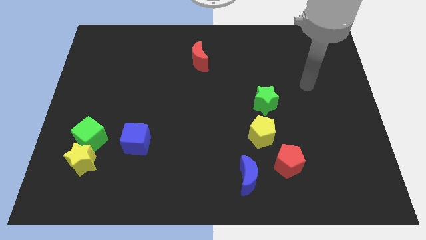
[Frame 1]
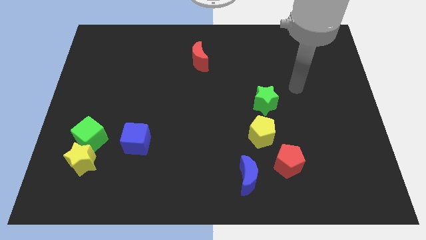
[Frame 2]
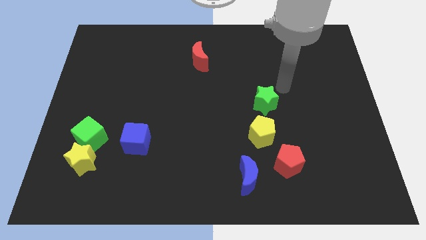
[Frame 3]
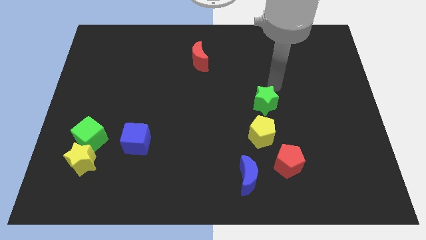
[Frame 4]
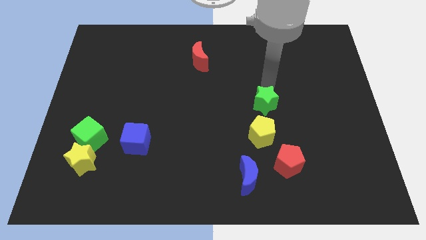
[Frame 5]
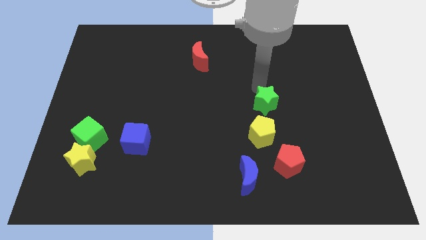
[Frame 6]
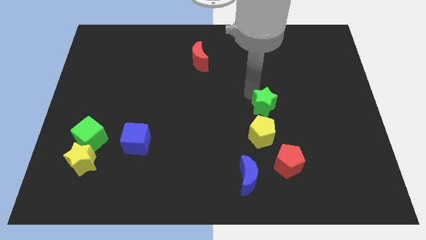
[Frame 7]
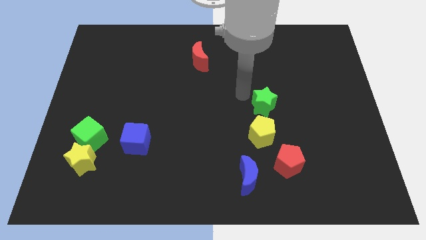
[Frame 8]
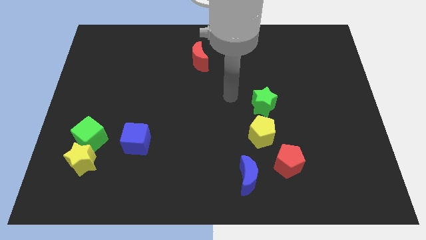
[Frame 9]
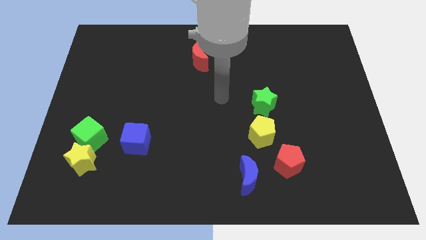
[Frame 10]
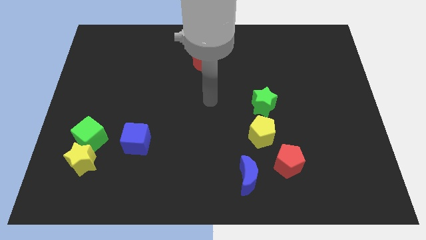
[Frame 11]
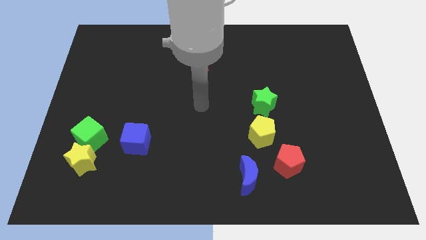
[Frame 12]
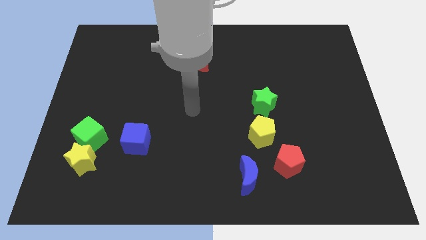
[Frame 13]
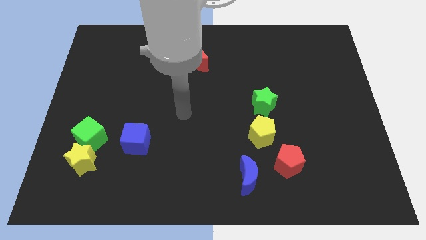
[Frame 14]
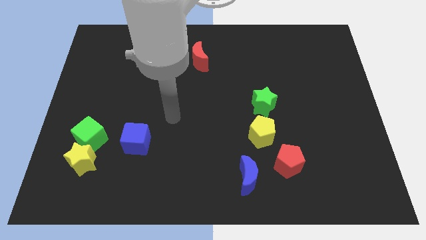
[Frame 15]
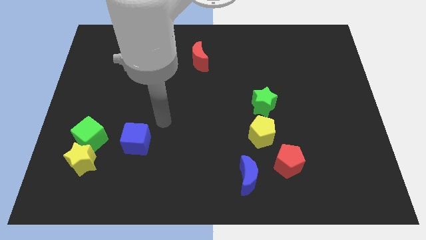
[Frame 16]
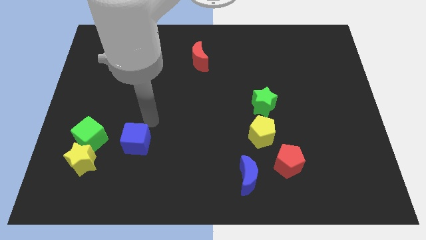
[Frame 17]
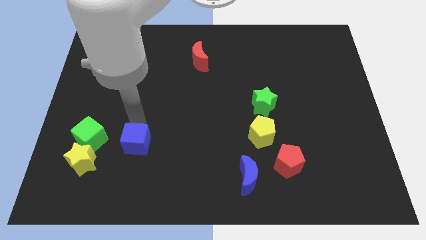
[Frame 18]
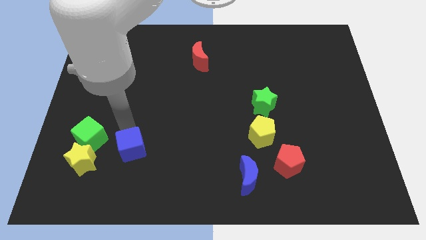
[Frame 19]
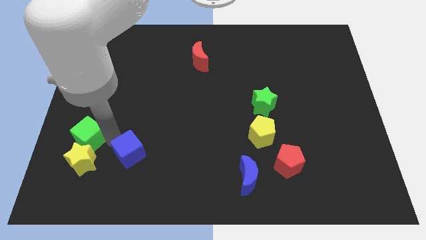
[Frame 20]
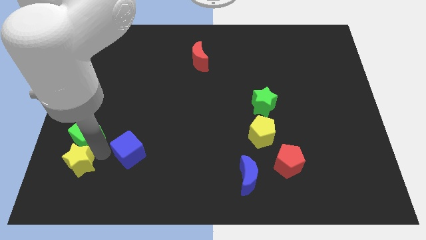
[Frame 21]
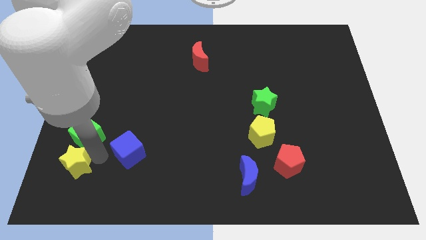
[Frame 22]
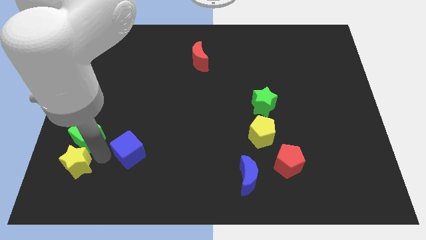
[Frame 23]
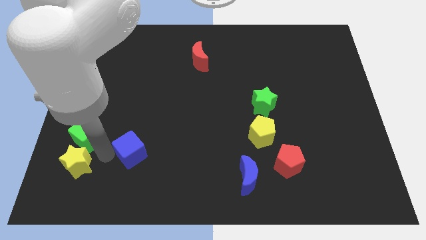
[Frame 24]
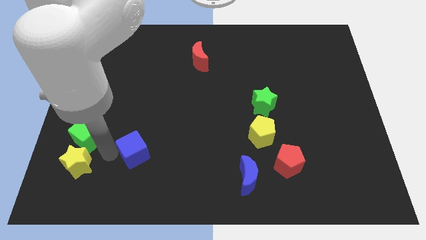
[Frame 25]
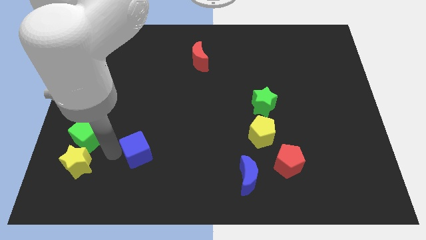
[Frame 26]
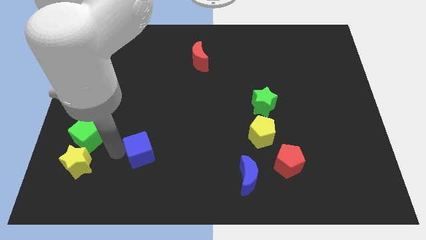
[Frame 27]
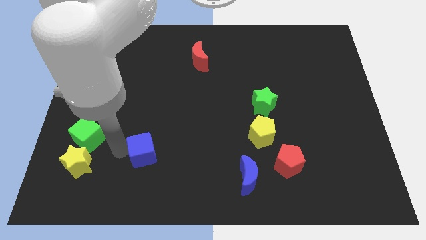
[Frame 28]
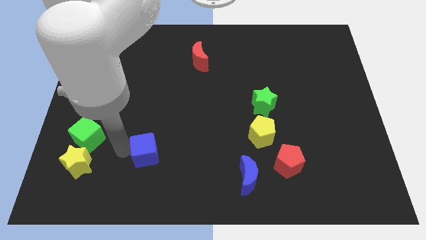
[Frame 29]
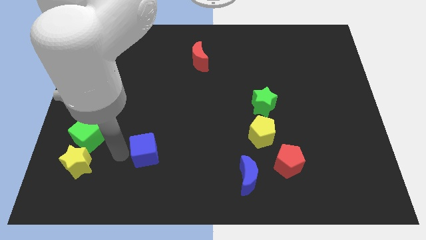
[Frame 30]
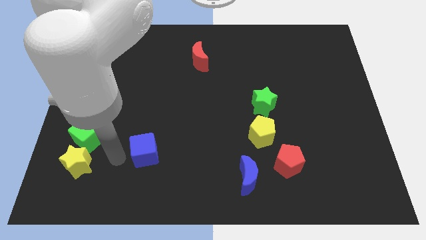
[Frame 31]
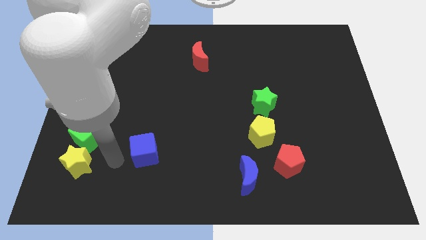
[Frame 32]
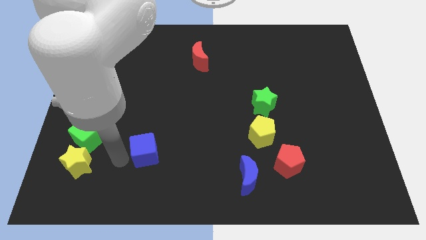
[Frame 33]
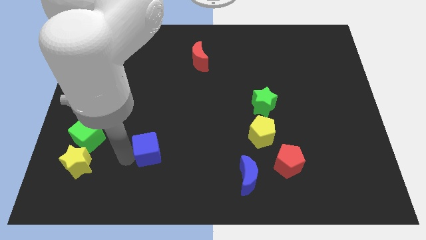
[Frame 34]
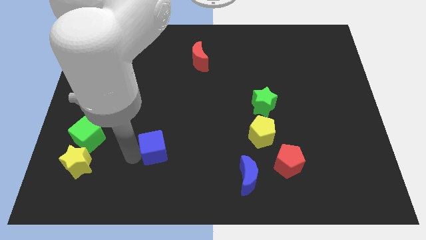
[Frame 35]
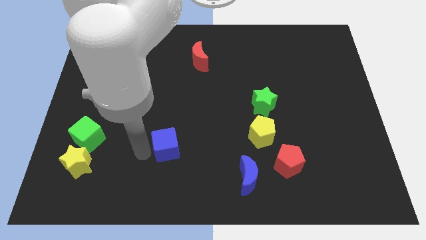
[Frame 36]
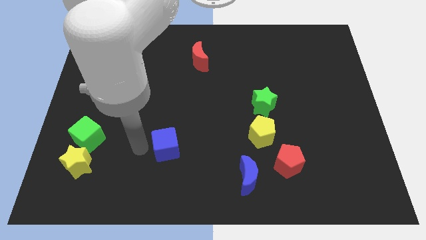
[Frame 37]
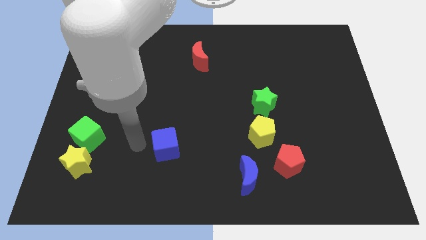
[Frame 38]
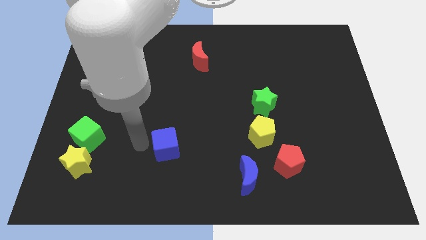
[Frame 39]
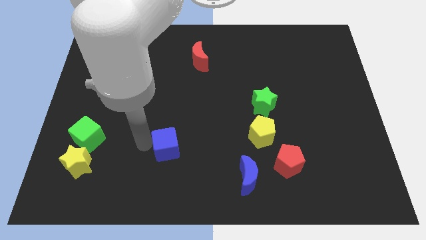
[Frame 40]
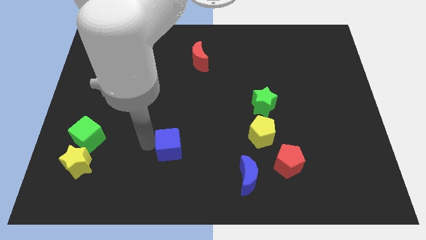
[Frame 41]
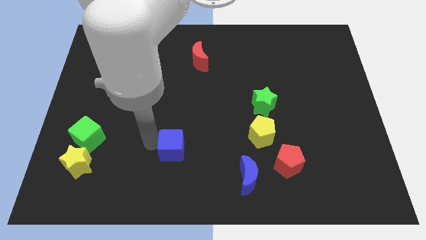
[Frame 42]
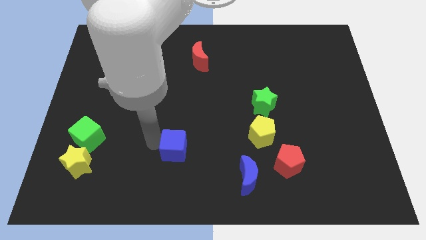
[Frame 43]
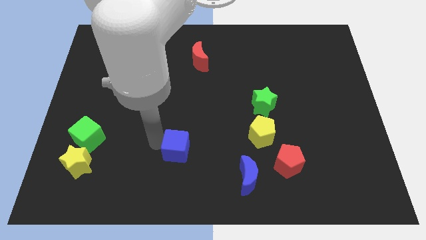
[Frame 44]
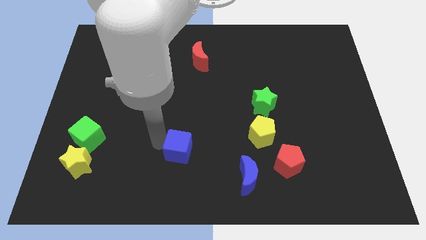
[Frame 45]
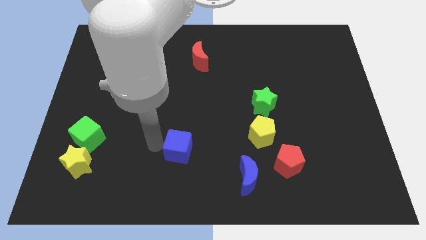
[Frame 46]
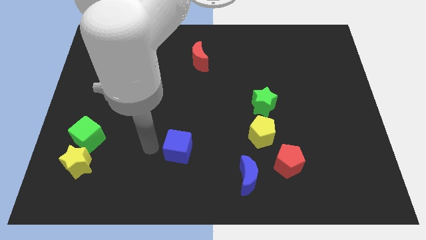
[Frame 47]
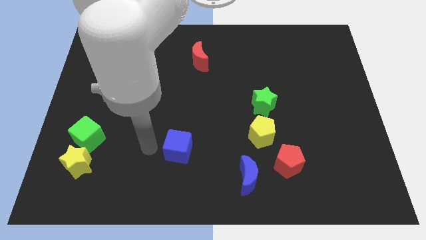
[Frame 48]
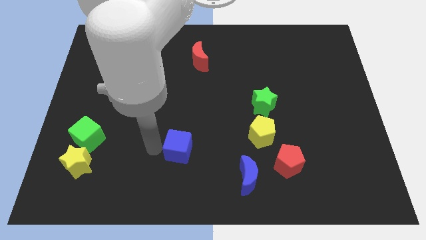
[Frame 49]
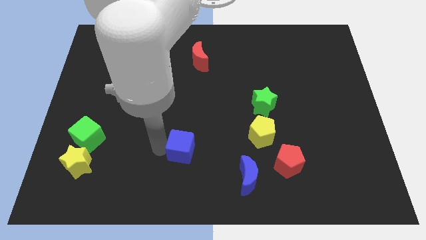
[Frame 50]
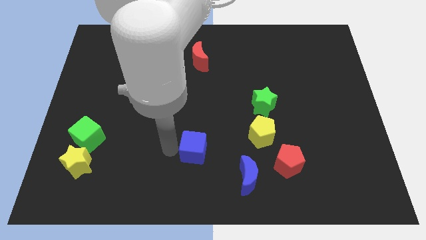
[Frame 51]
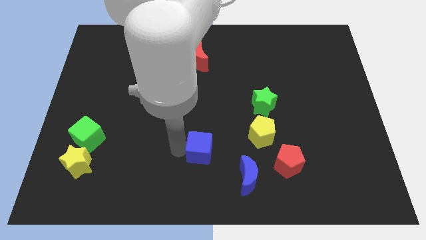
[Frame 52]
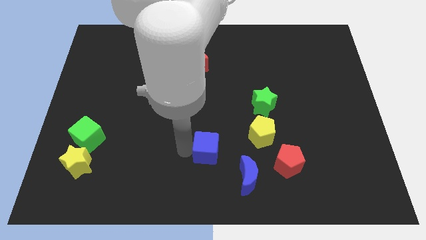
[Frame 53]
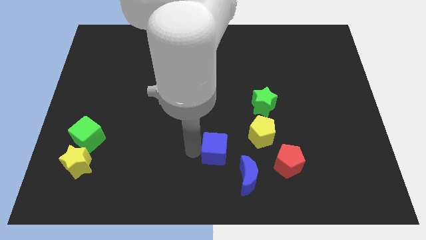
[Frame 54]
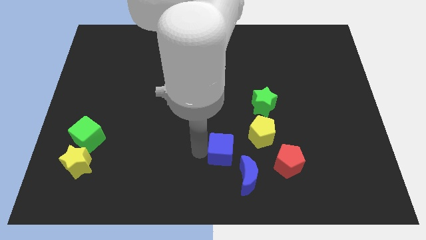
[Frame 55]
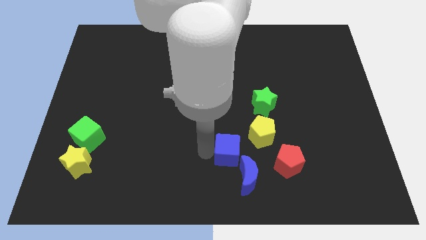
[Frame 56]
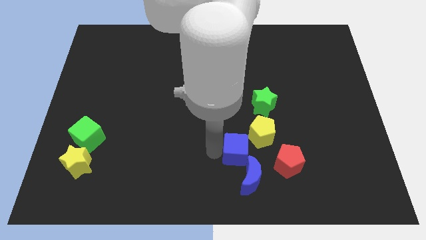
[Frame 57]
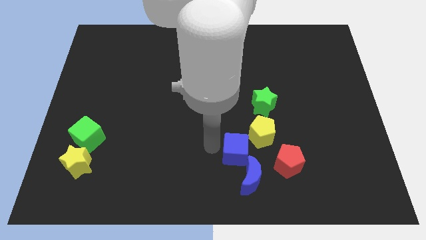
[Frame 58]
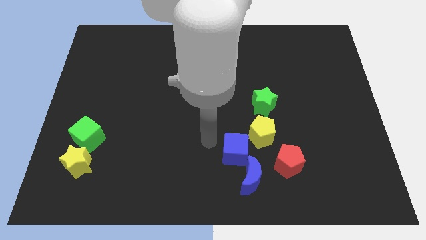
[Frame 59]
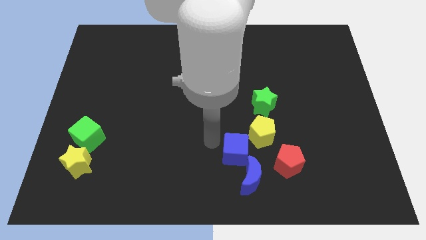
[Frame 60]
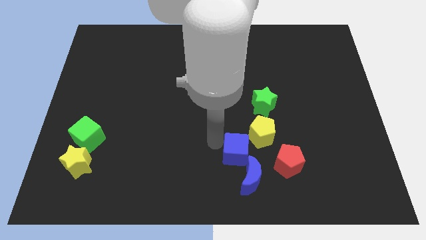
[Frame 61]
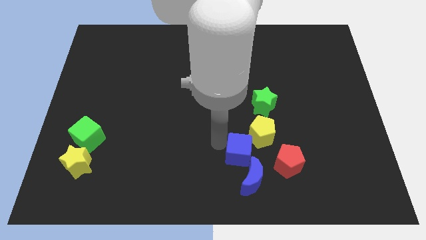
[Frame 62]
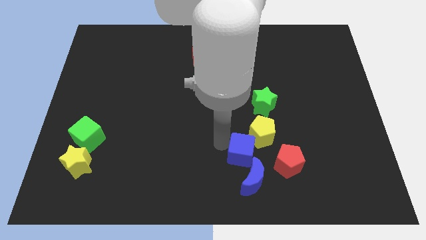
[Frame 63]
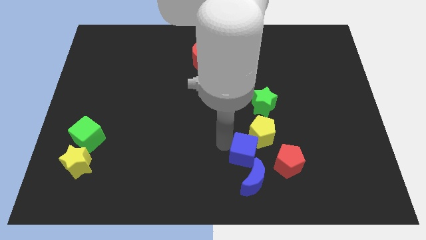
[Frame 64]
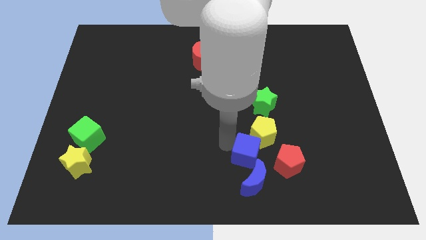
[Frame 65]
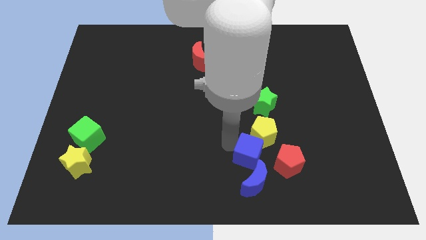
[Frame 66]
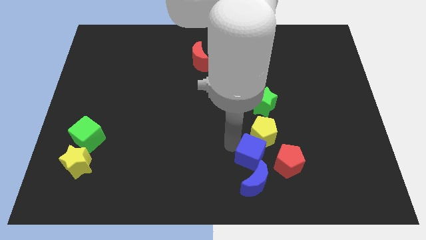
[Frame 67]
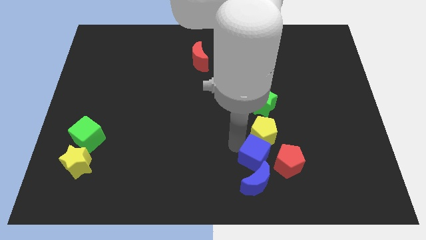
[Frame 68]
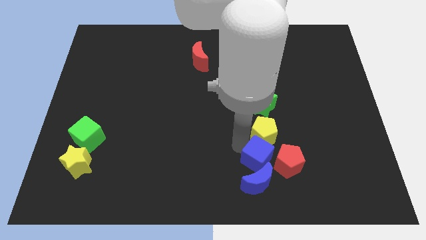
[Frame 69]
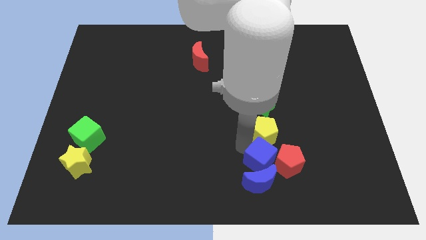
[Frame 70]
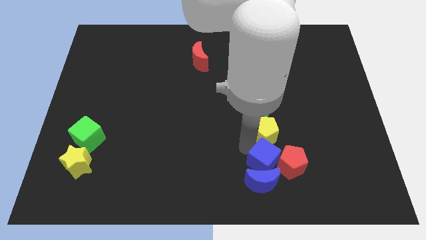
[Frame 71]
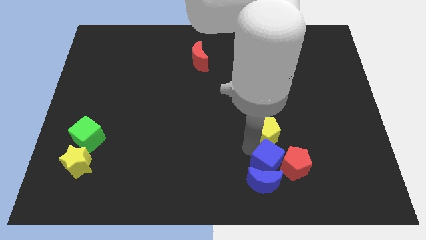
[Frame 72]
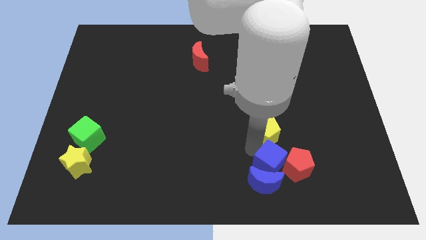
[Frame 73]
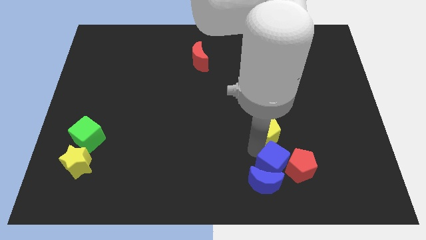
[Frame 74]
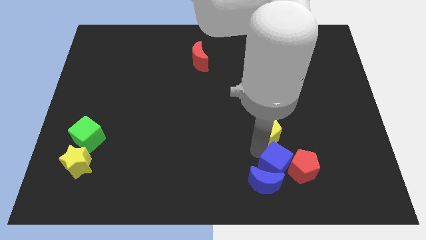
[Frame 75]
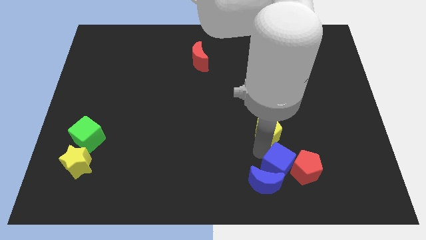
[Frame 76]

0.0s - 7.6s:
push the blue cube right of the blue moon
